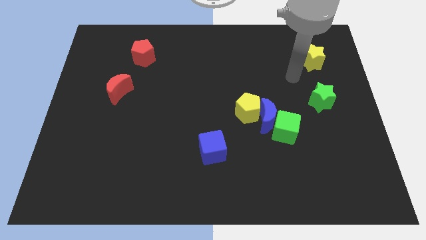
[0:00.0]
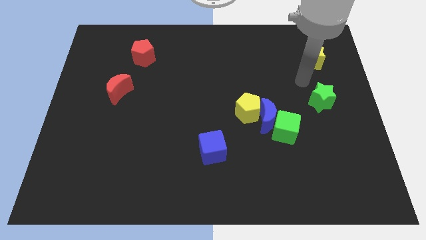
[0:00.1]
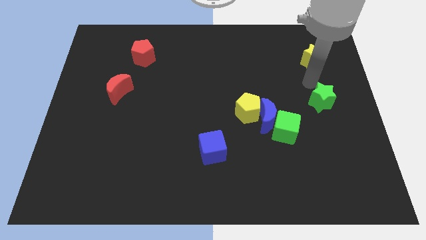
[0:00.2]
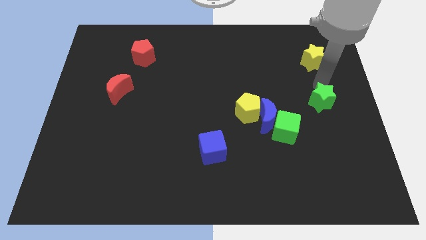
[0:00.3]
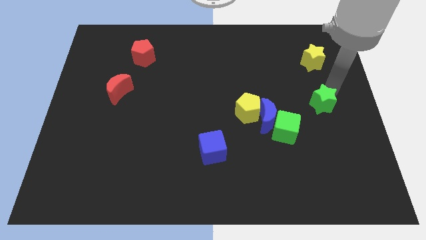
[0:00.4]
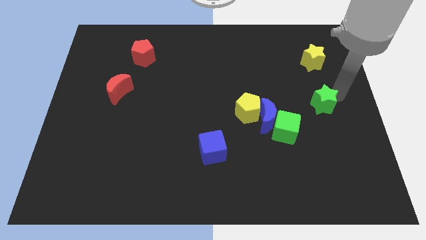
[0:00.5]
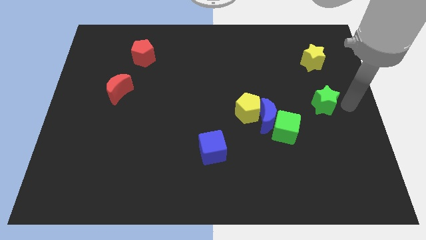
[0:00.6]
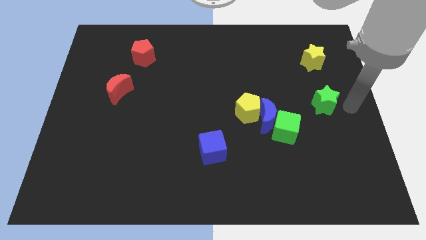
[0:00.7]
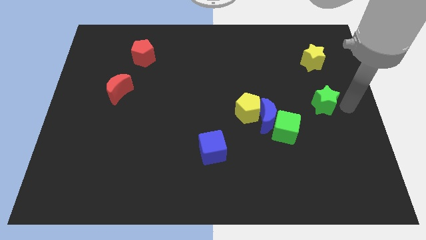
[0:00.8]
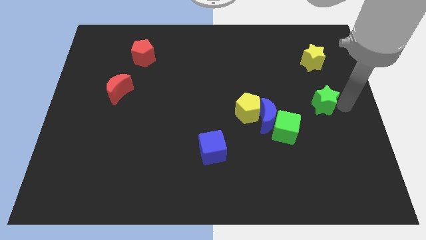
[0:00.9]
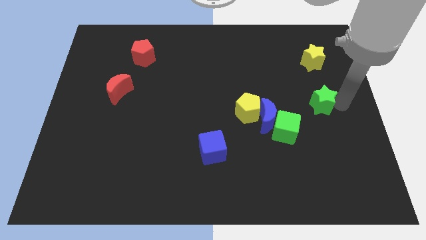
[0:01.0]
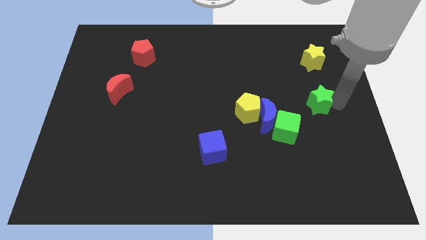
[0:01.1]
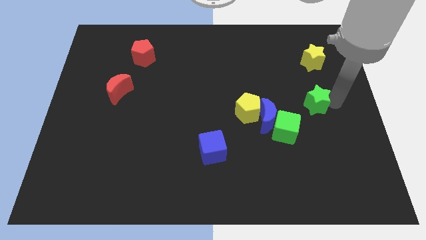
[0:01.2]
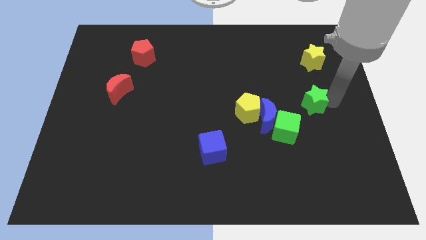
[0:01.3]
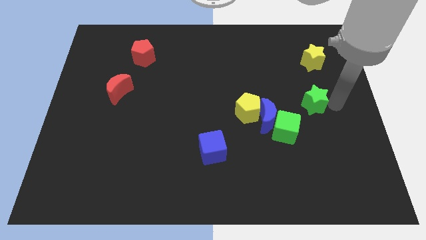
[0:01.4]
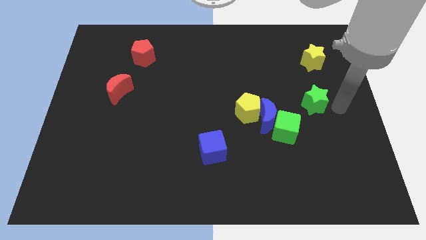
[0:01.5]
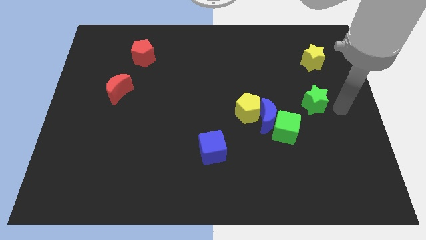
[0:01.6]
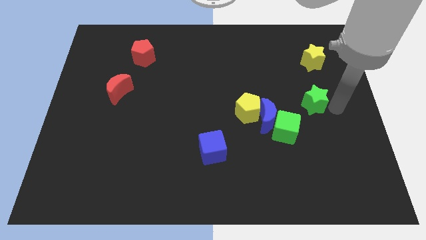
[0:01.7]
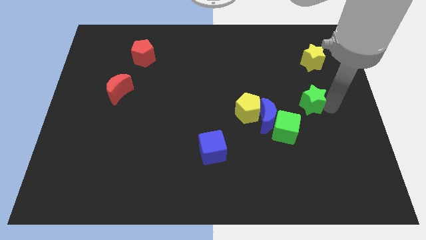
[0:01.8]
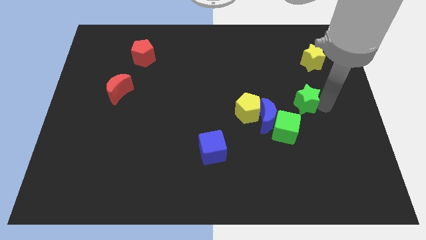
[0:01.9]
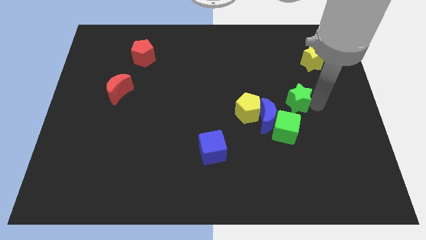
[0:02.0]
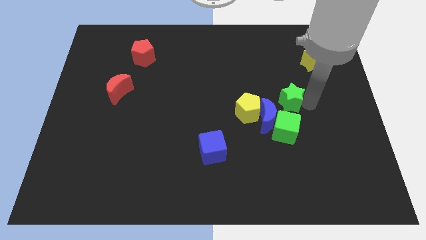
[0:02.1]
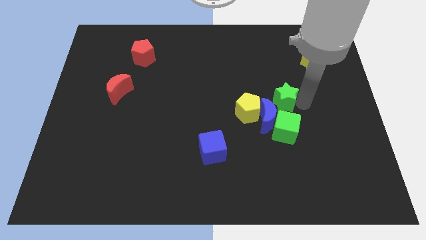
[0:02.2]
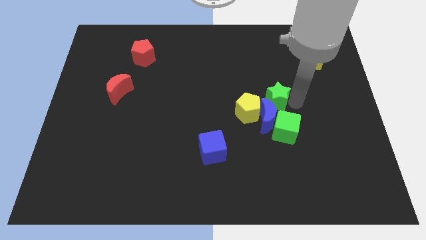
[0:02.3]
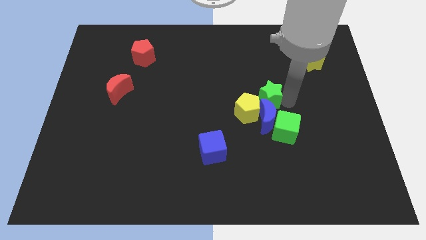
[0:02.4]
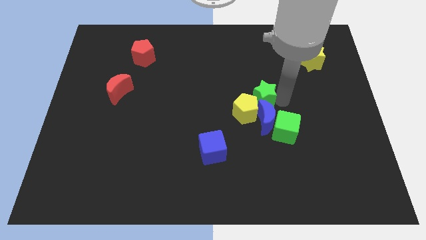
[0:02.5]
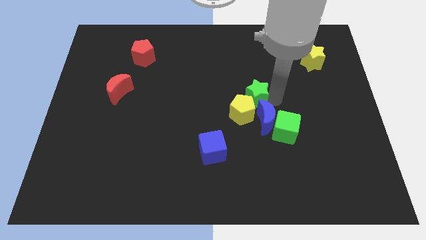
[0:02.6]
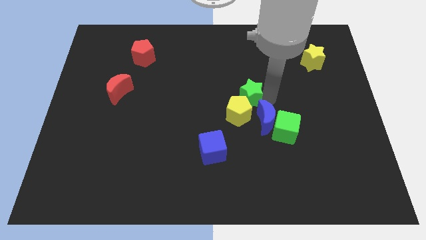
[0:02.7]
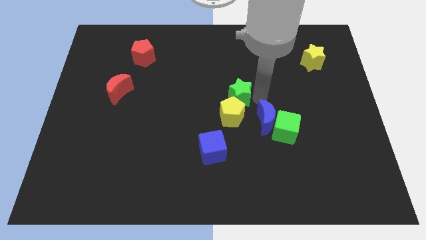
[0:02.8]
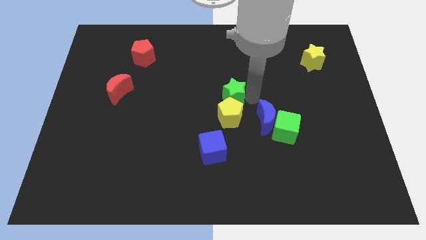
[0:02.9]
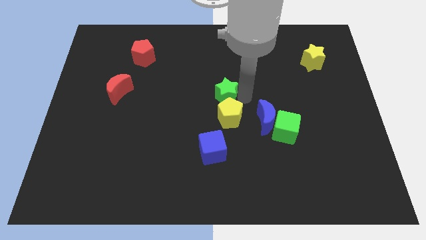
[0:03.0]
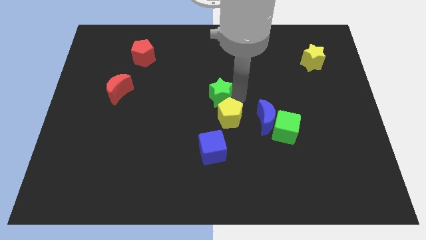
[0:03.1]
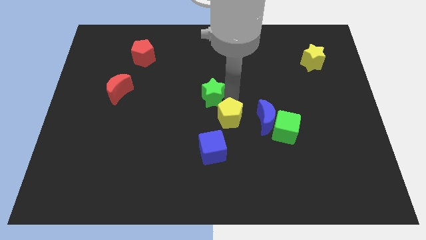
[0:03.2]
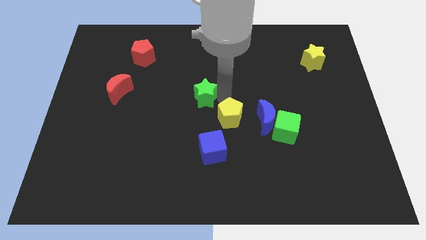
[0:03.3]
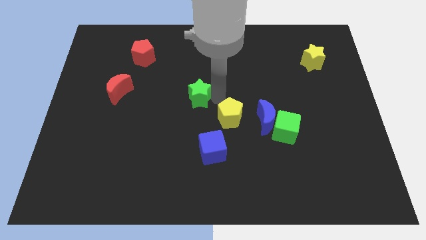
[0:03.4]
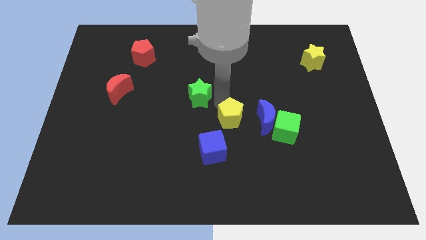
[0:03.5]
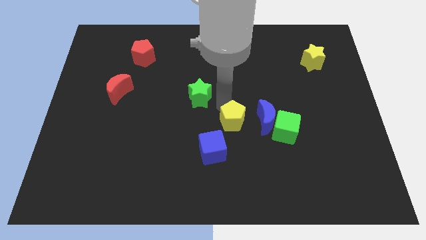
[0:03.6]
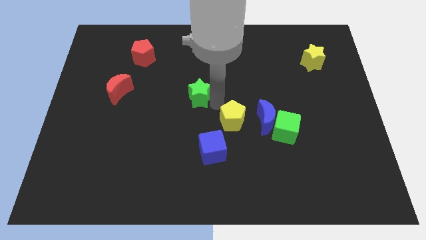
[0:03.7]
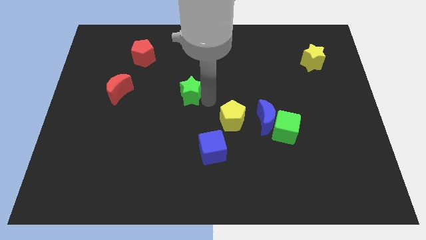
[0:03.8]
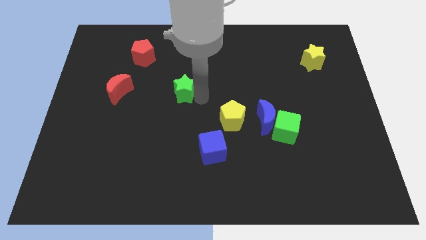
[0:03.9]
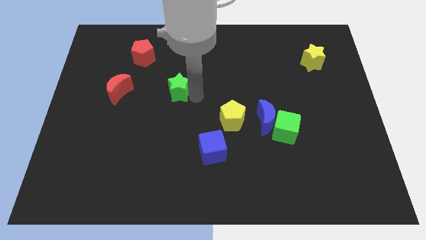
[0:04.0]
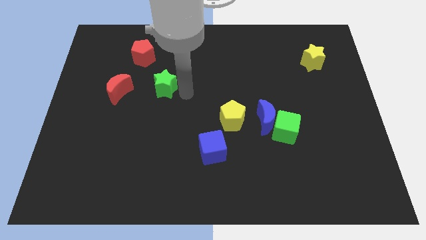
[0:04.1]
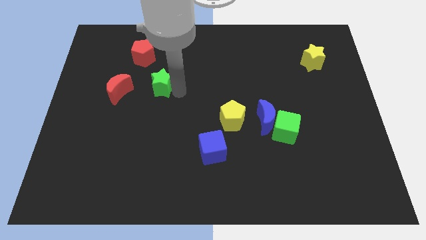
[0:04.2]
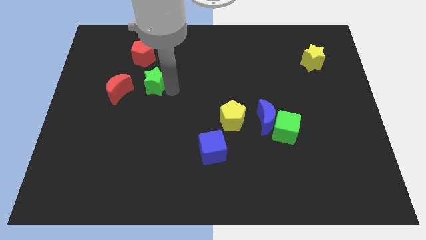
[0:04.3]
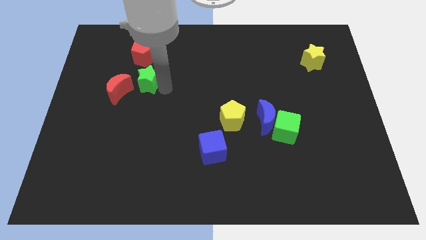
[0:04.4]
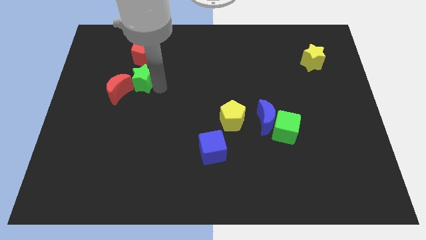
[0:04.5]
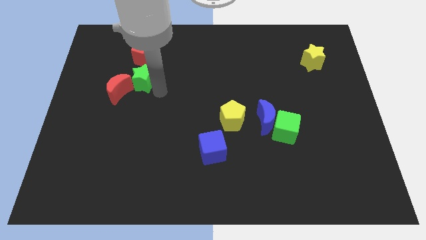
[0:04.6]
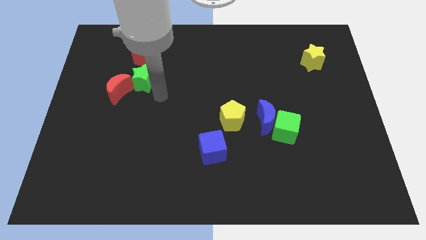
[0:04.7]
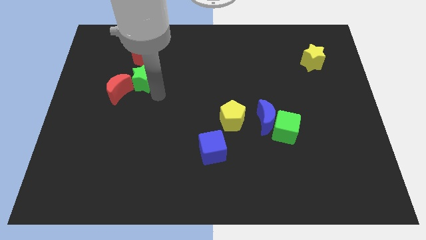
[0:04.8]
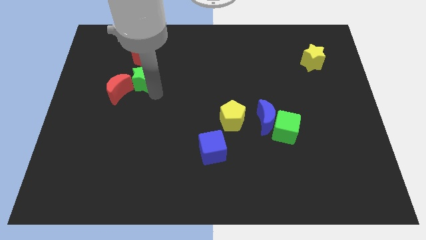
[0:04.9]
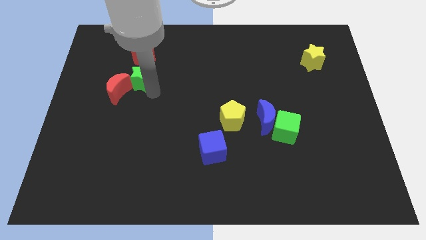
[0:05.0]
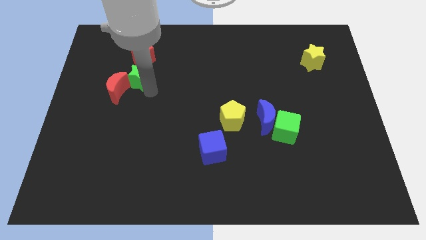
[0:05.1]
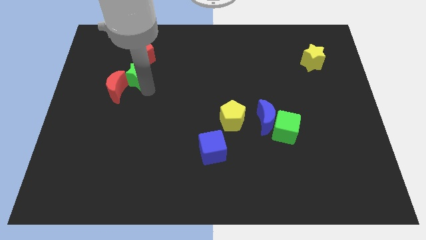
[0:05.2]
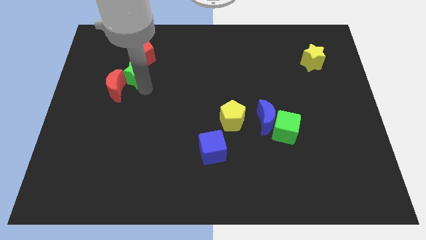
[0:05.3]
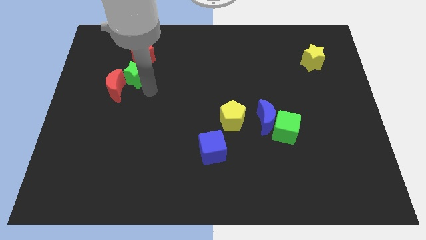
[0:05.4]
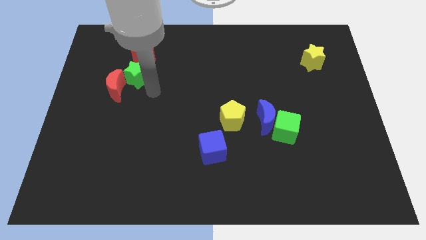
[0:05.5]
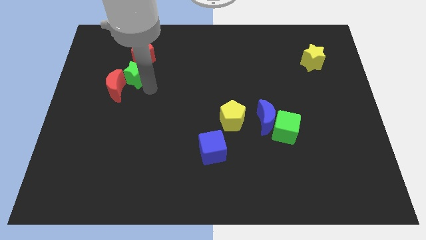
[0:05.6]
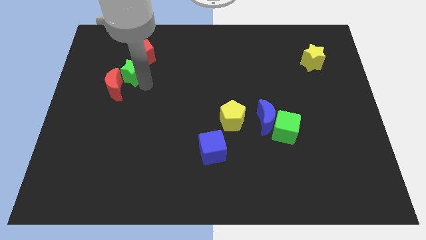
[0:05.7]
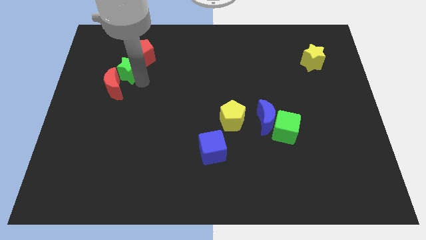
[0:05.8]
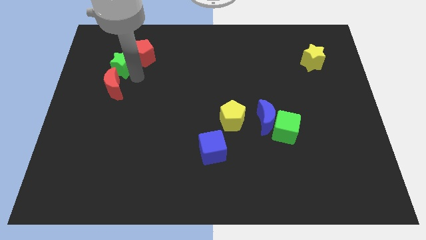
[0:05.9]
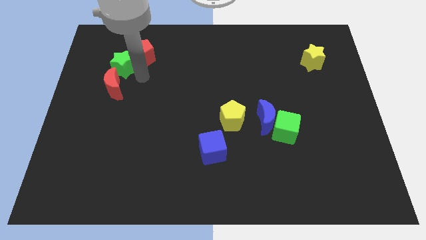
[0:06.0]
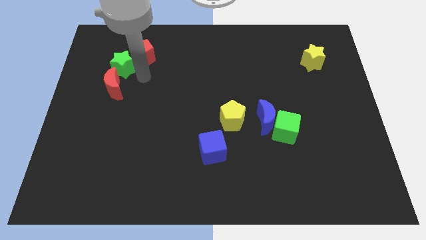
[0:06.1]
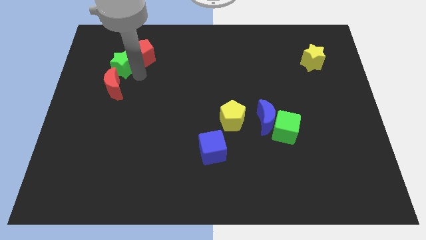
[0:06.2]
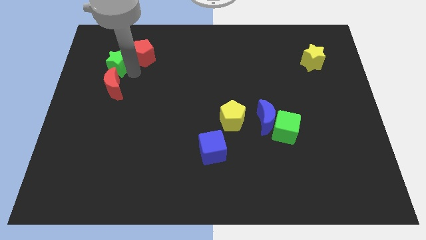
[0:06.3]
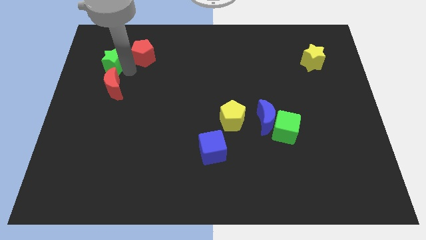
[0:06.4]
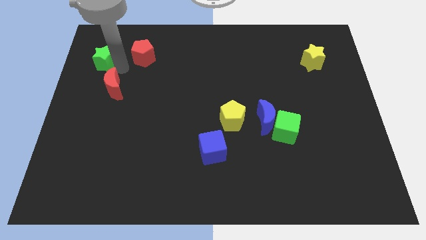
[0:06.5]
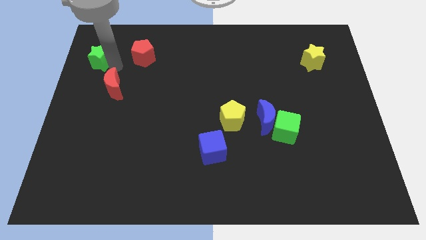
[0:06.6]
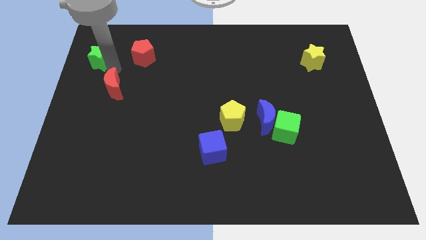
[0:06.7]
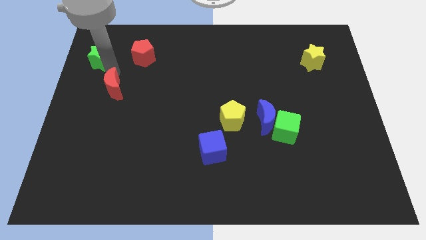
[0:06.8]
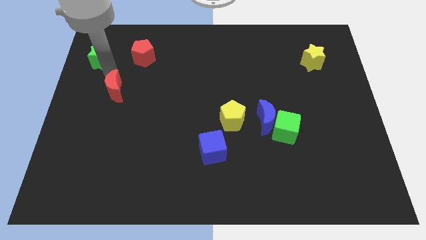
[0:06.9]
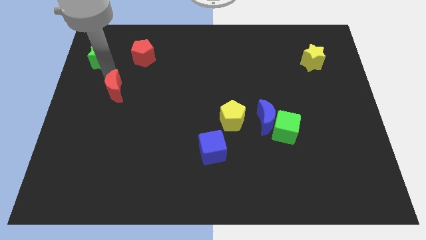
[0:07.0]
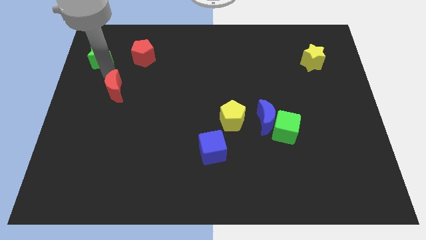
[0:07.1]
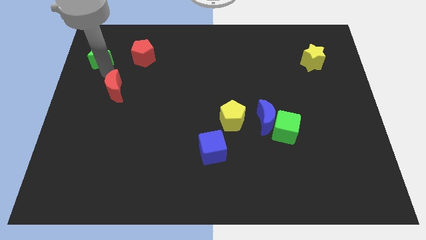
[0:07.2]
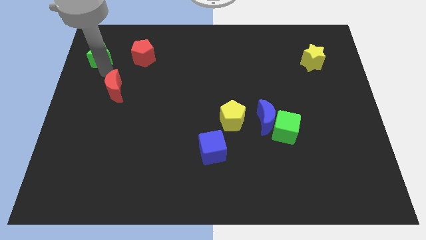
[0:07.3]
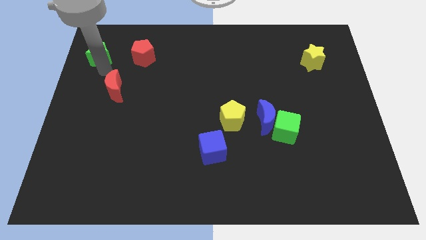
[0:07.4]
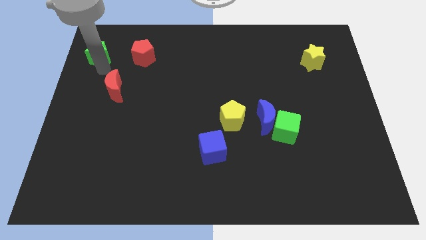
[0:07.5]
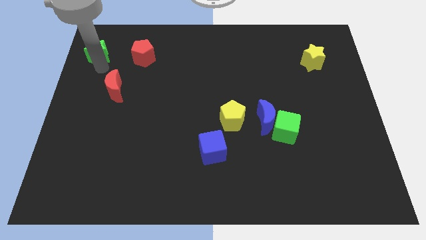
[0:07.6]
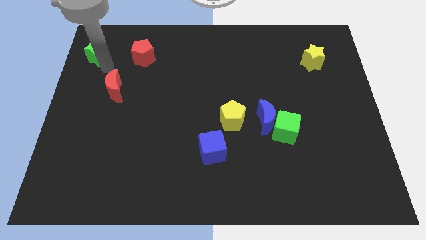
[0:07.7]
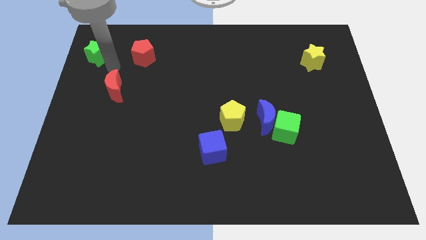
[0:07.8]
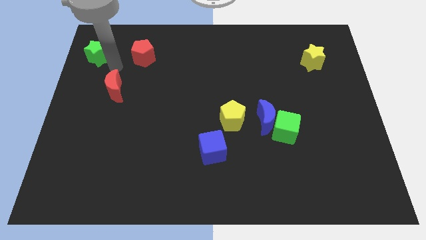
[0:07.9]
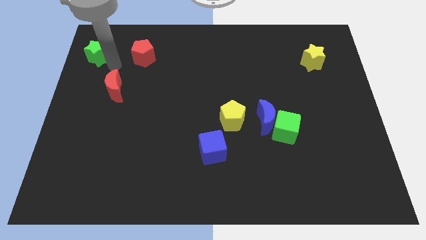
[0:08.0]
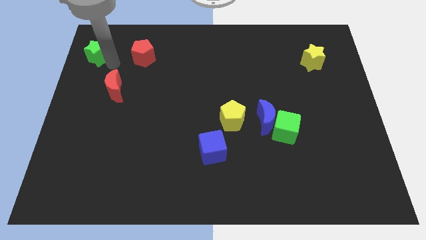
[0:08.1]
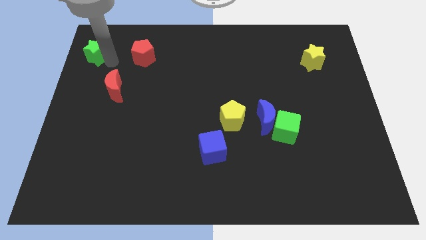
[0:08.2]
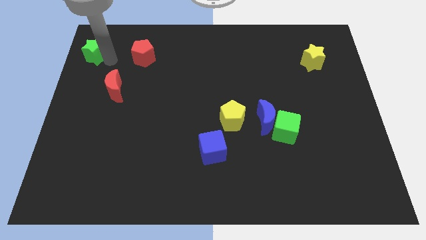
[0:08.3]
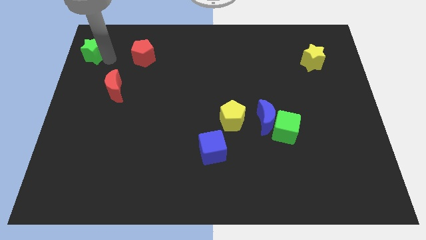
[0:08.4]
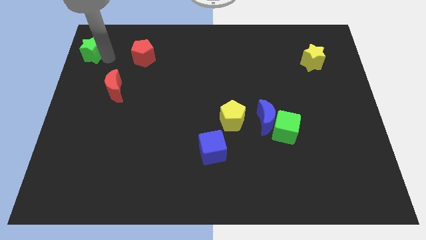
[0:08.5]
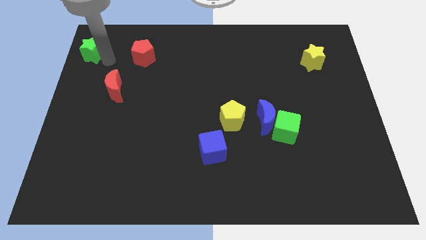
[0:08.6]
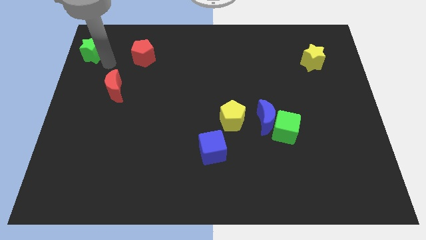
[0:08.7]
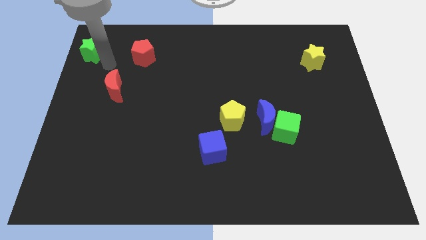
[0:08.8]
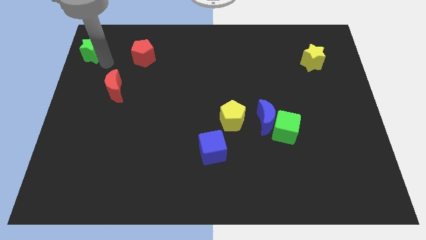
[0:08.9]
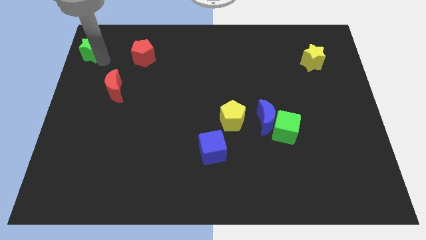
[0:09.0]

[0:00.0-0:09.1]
slide the green star to the upper left corner
